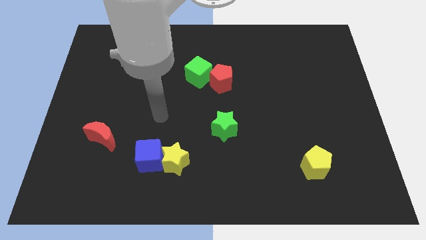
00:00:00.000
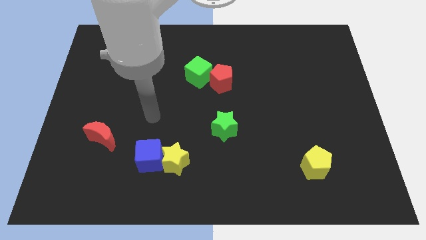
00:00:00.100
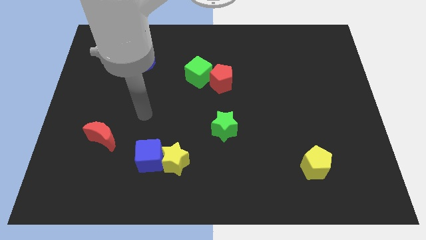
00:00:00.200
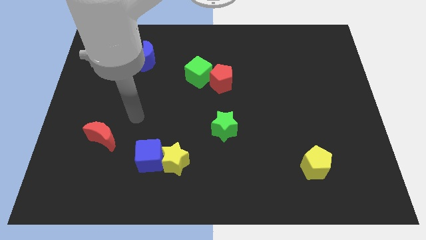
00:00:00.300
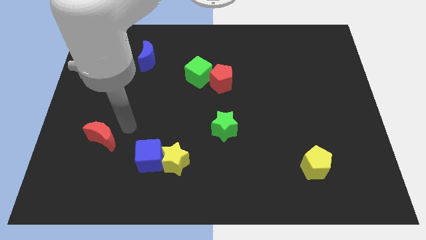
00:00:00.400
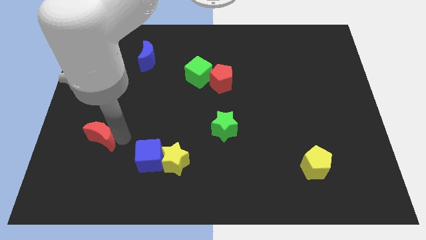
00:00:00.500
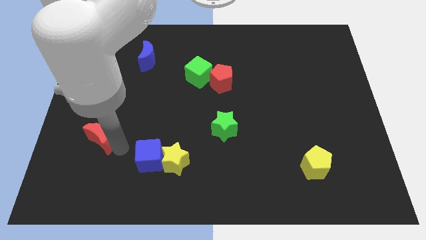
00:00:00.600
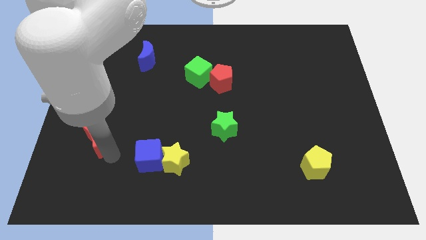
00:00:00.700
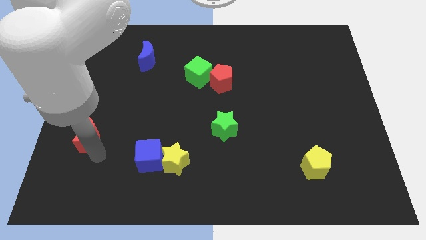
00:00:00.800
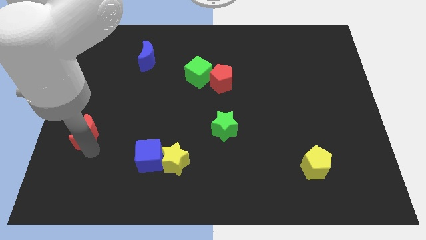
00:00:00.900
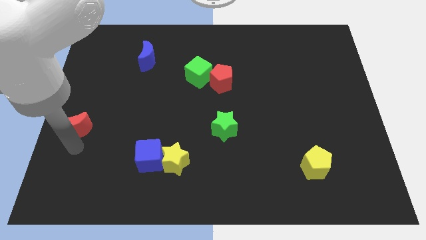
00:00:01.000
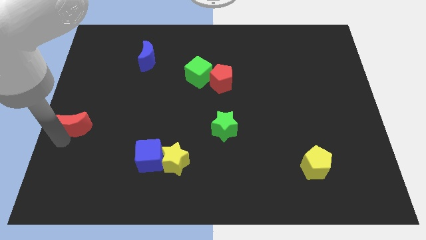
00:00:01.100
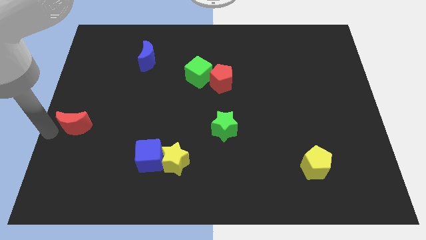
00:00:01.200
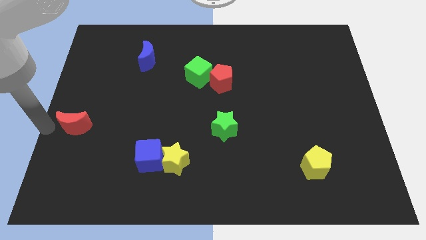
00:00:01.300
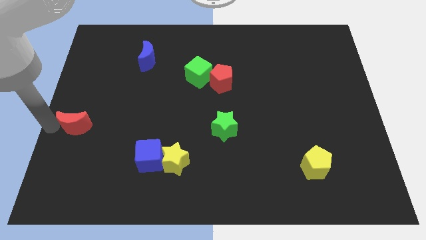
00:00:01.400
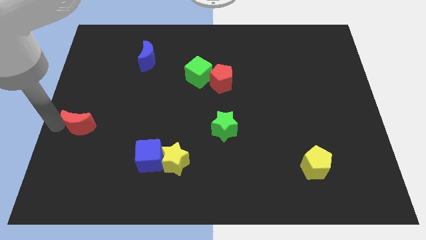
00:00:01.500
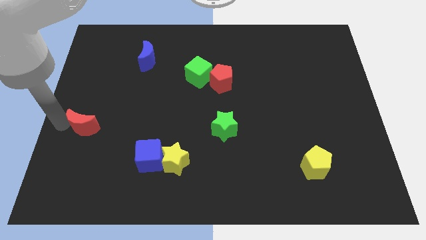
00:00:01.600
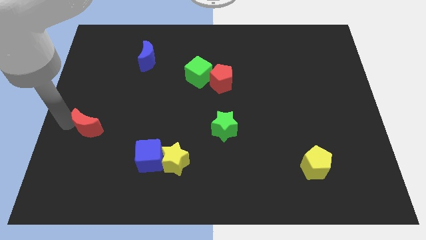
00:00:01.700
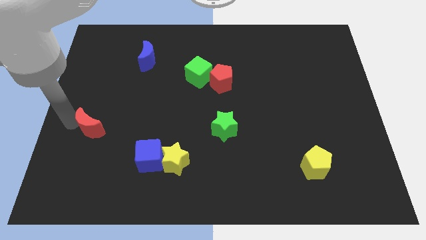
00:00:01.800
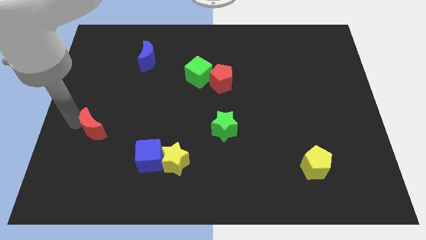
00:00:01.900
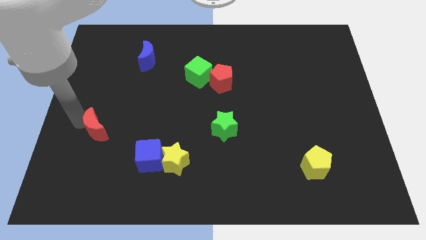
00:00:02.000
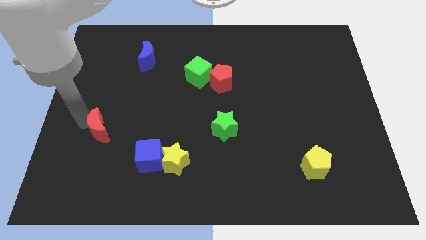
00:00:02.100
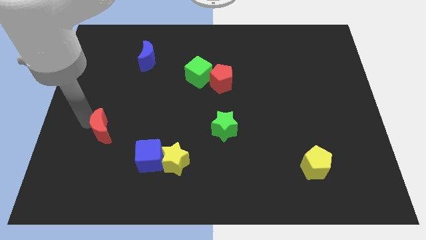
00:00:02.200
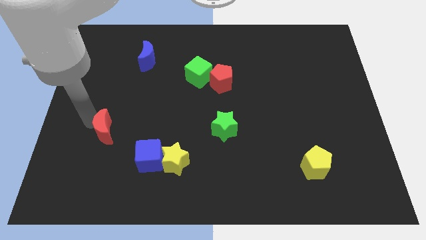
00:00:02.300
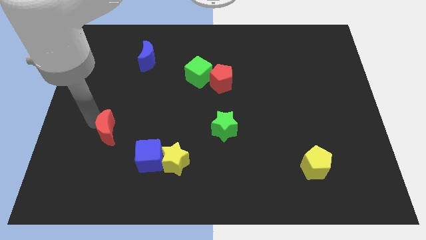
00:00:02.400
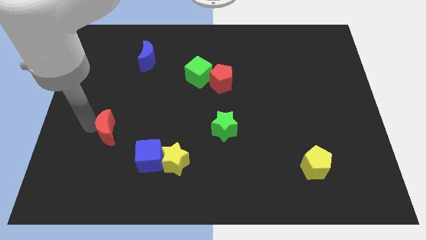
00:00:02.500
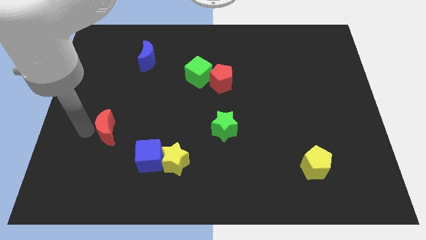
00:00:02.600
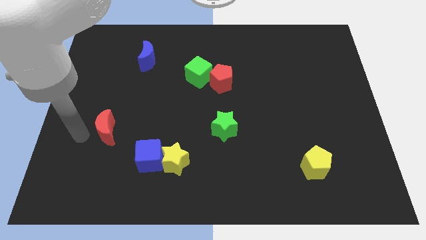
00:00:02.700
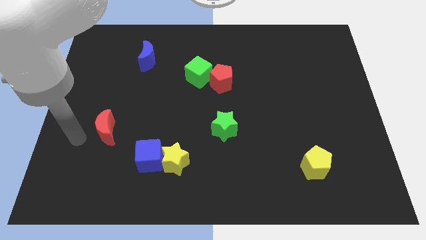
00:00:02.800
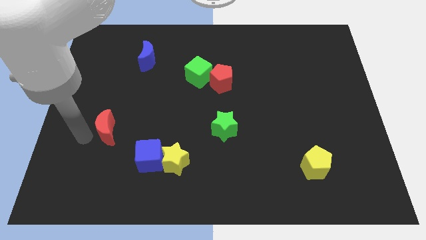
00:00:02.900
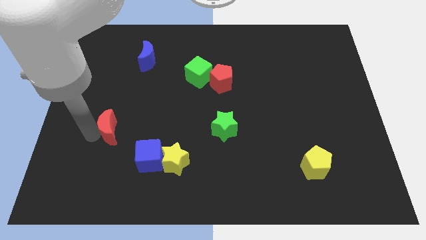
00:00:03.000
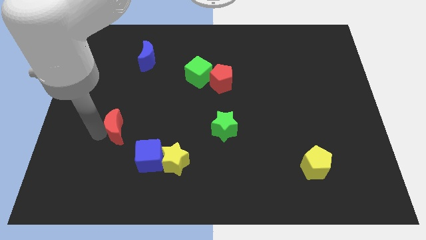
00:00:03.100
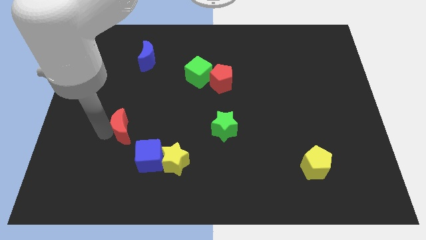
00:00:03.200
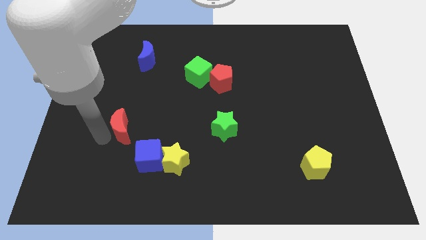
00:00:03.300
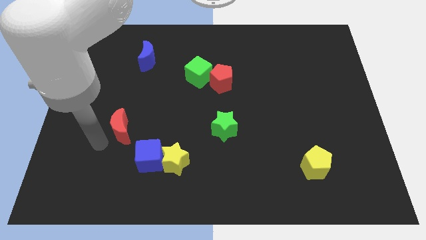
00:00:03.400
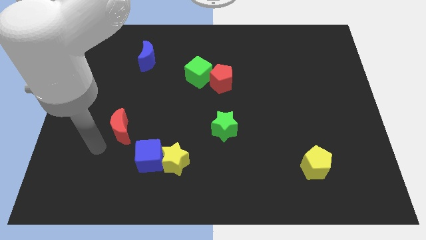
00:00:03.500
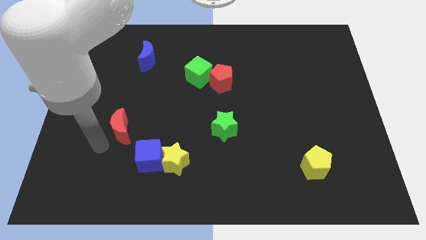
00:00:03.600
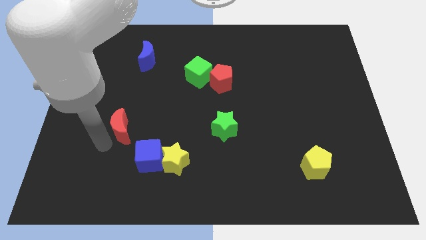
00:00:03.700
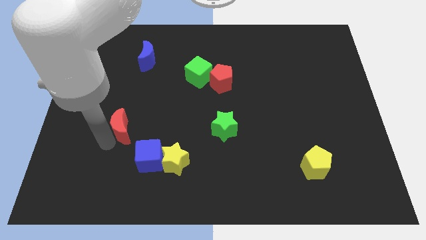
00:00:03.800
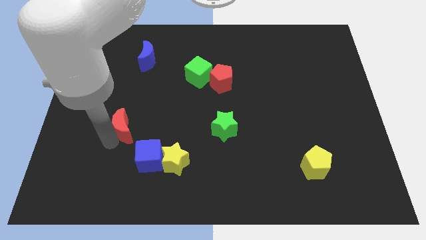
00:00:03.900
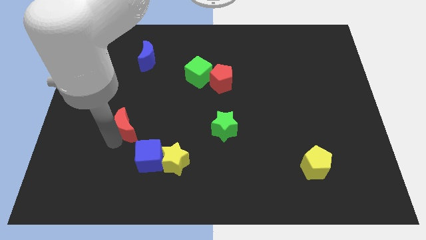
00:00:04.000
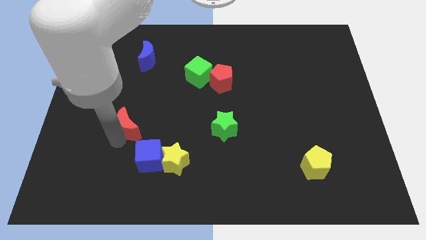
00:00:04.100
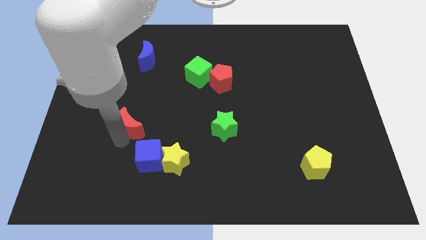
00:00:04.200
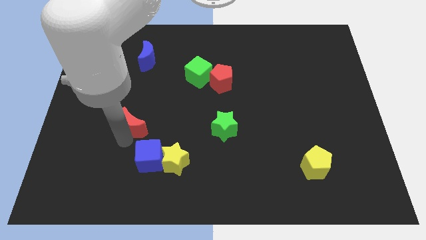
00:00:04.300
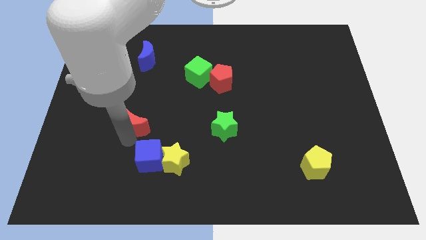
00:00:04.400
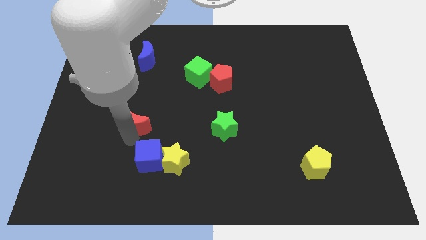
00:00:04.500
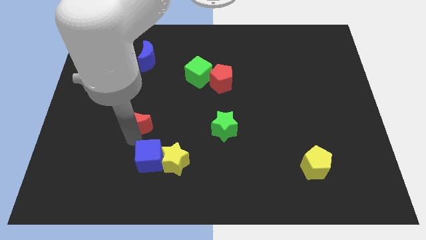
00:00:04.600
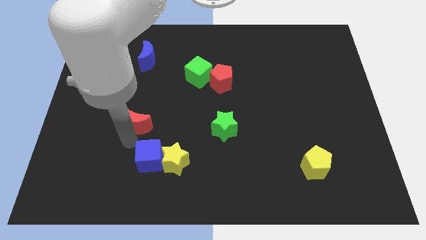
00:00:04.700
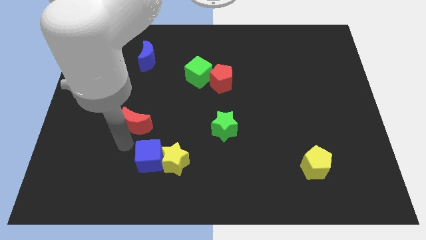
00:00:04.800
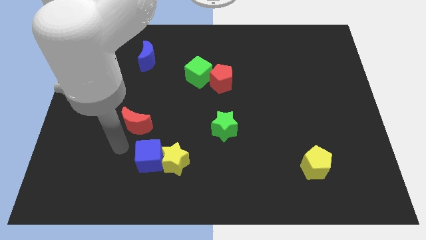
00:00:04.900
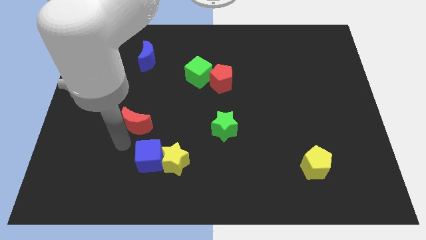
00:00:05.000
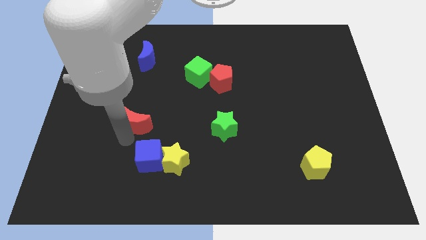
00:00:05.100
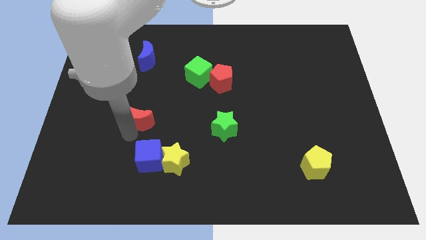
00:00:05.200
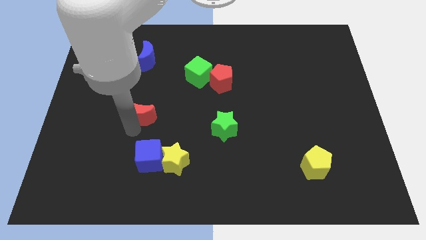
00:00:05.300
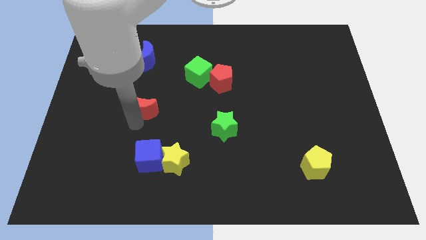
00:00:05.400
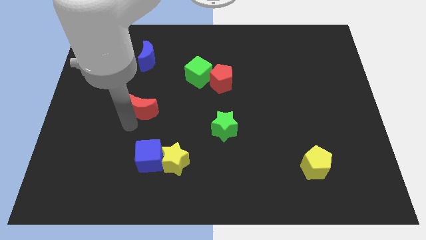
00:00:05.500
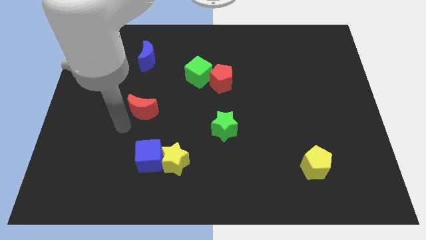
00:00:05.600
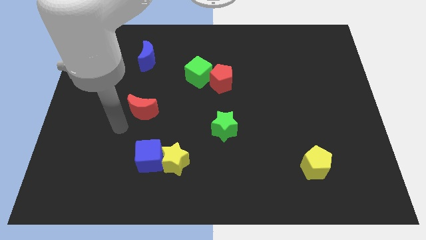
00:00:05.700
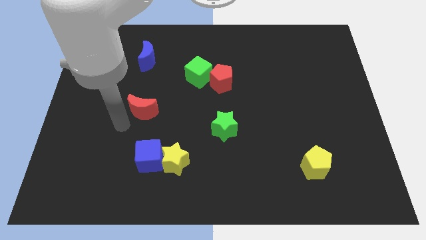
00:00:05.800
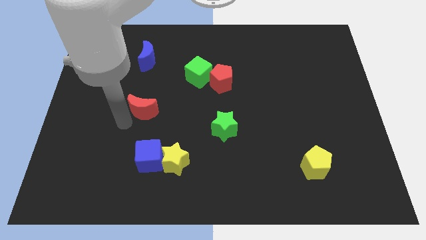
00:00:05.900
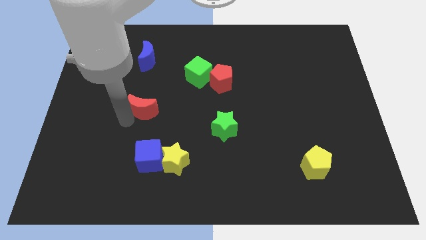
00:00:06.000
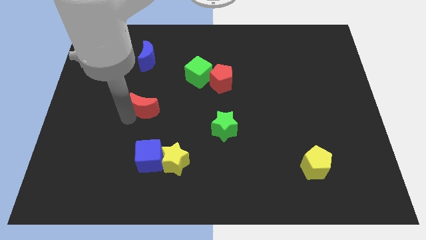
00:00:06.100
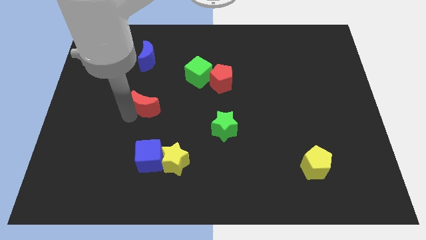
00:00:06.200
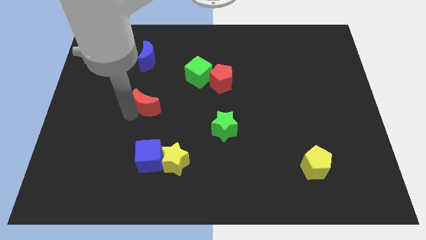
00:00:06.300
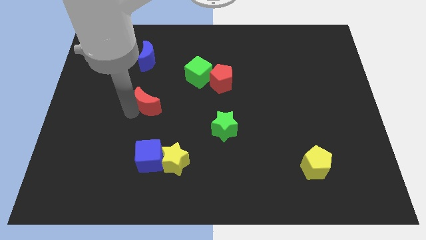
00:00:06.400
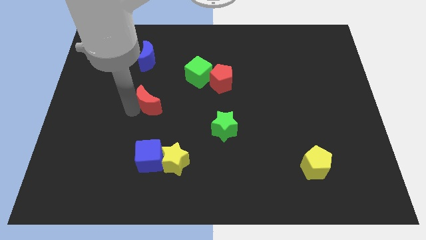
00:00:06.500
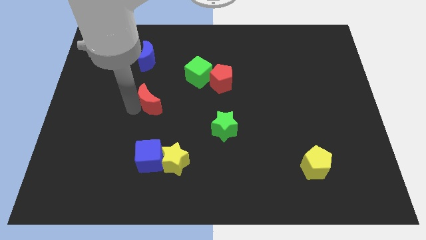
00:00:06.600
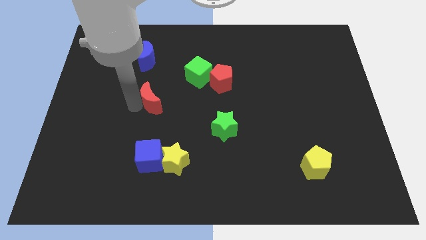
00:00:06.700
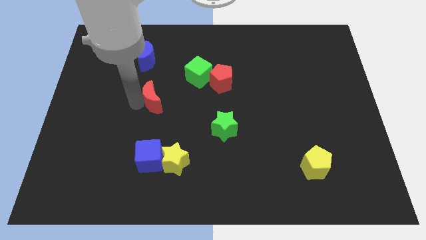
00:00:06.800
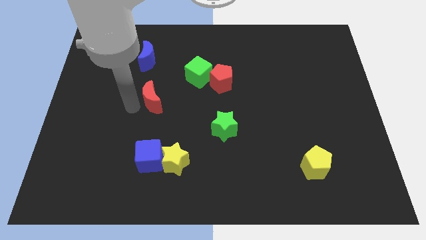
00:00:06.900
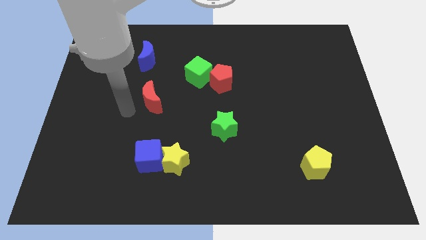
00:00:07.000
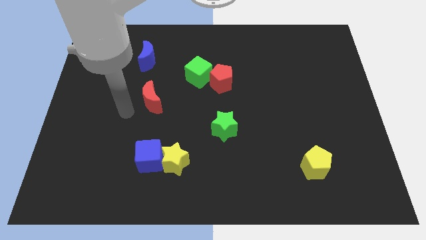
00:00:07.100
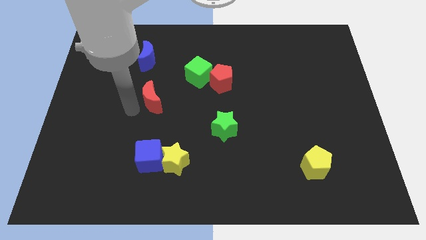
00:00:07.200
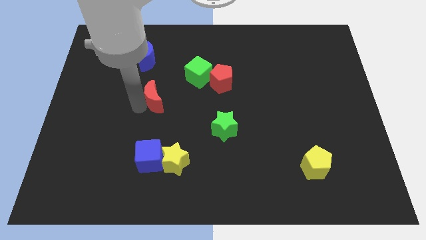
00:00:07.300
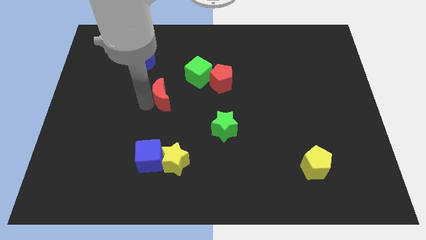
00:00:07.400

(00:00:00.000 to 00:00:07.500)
move the red moon to the bottom left side of the green cube
